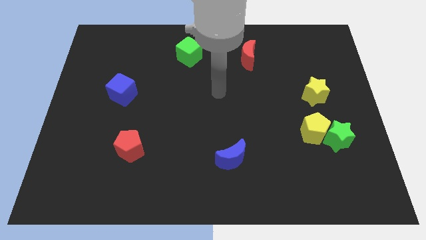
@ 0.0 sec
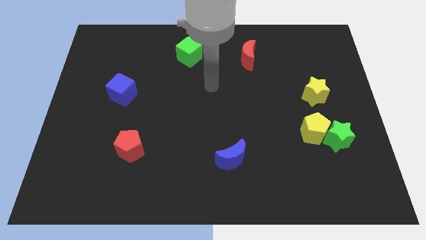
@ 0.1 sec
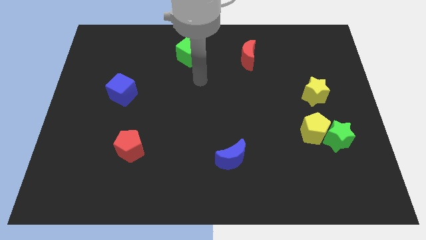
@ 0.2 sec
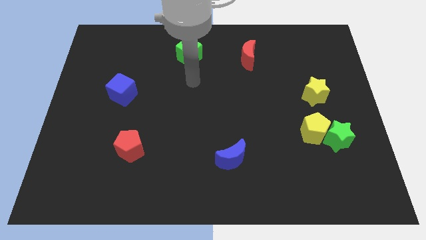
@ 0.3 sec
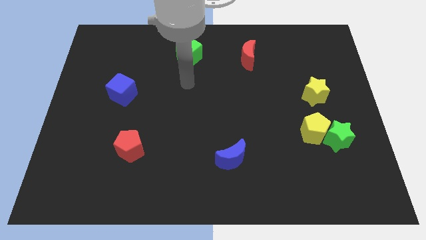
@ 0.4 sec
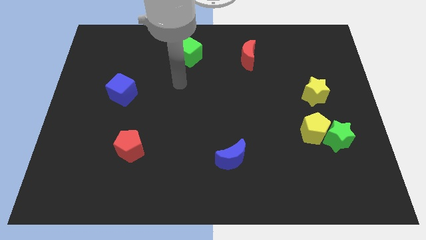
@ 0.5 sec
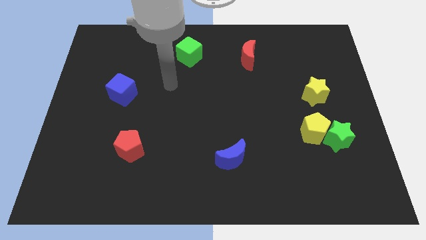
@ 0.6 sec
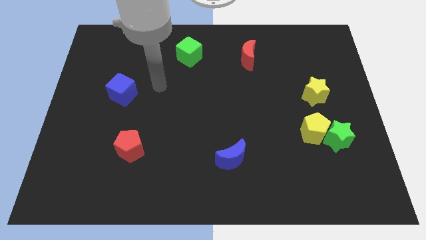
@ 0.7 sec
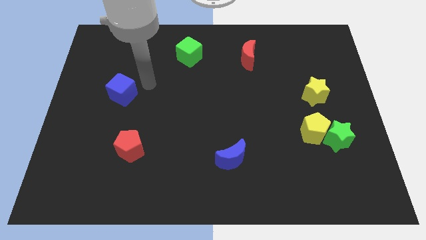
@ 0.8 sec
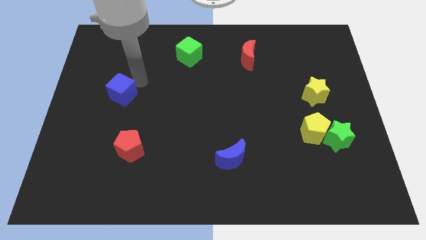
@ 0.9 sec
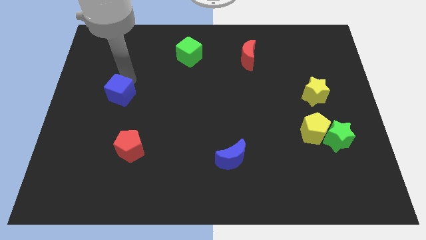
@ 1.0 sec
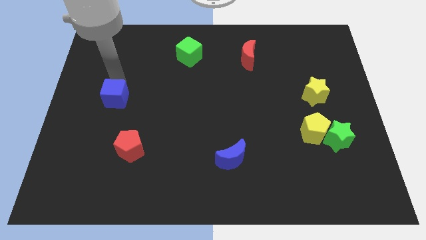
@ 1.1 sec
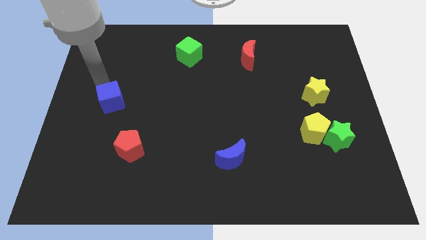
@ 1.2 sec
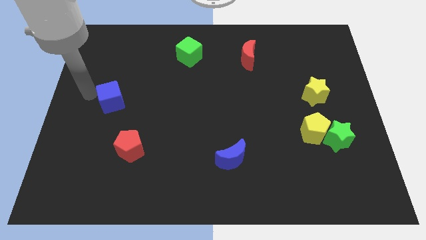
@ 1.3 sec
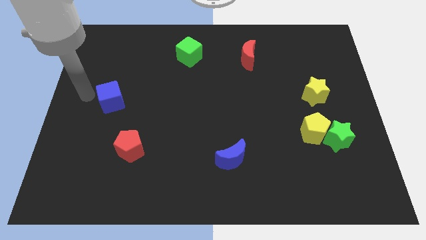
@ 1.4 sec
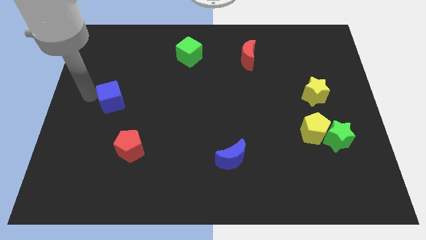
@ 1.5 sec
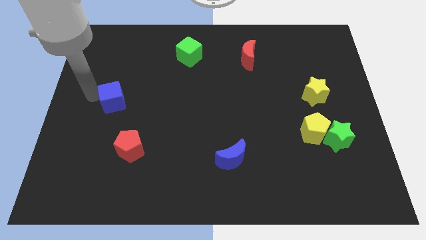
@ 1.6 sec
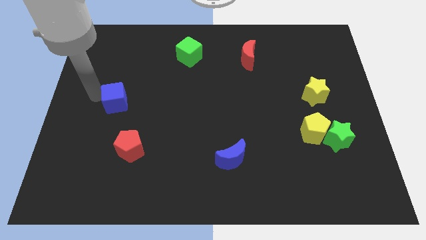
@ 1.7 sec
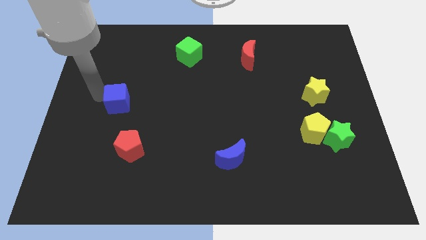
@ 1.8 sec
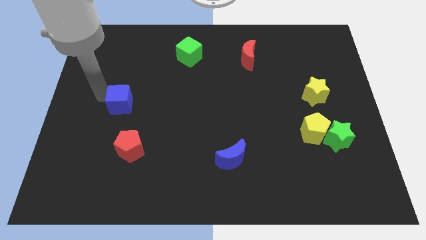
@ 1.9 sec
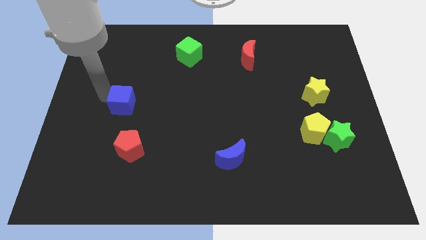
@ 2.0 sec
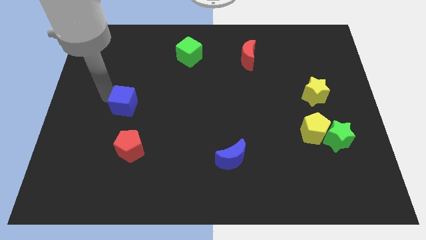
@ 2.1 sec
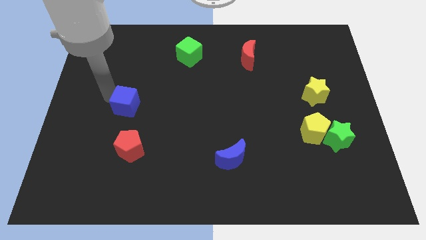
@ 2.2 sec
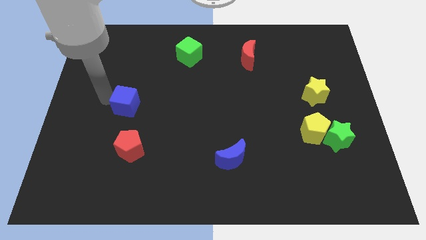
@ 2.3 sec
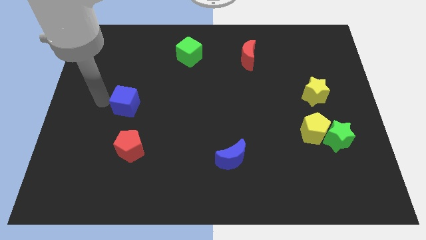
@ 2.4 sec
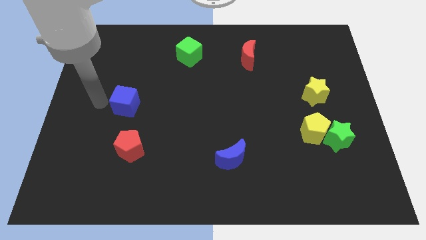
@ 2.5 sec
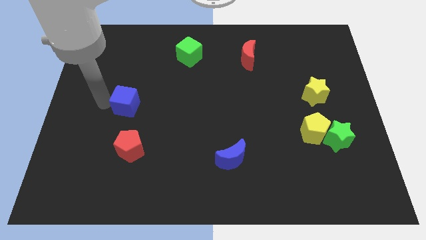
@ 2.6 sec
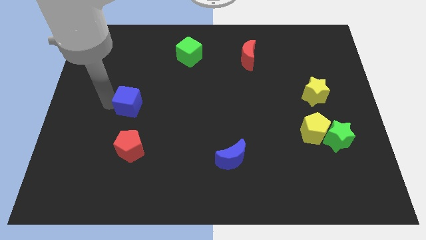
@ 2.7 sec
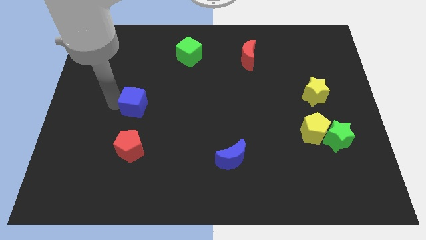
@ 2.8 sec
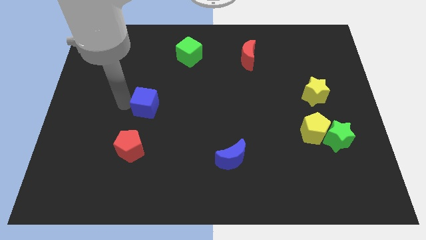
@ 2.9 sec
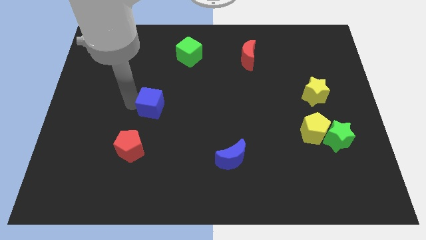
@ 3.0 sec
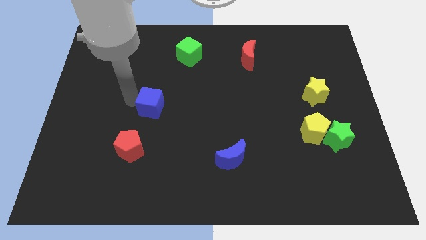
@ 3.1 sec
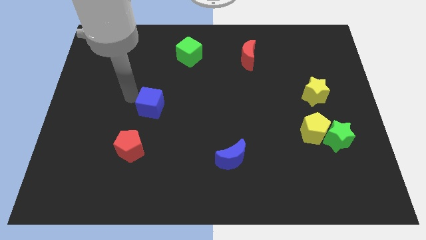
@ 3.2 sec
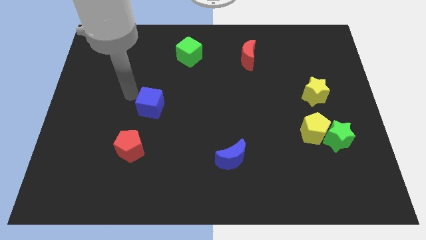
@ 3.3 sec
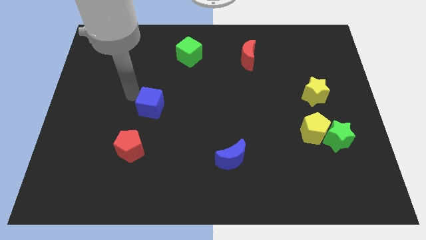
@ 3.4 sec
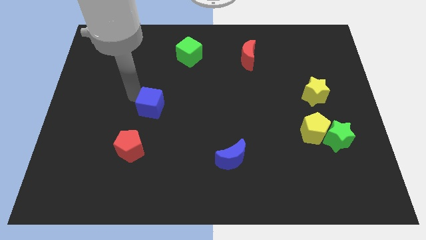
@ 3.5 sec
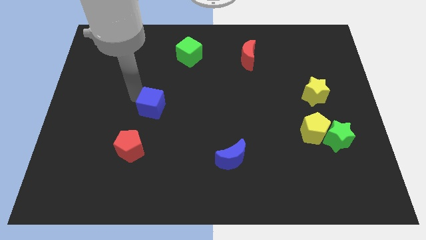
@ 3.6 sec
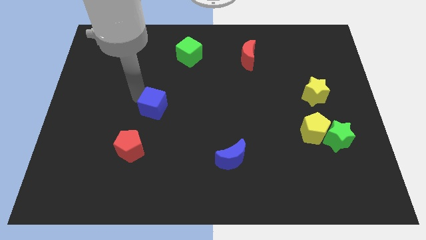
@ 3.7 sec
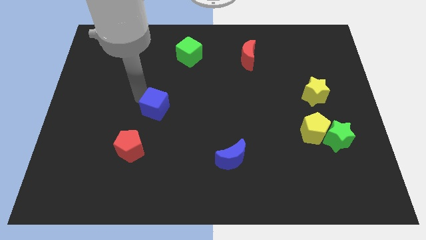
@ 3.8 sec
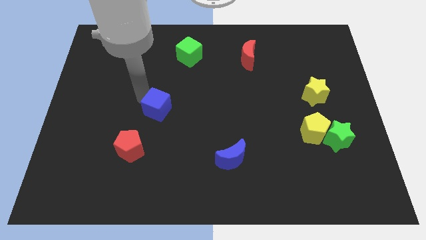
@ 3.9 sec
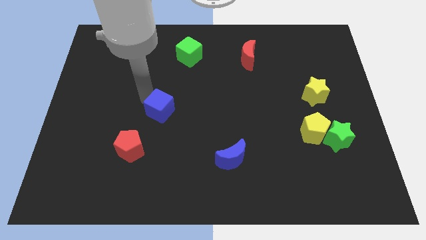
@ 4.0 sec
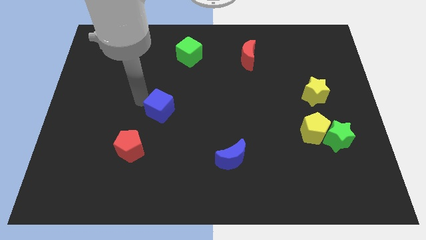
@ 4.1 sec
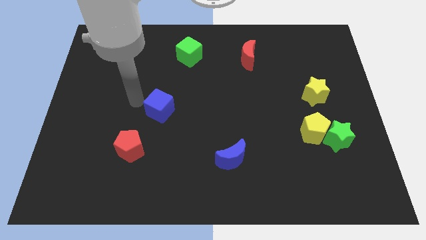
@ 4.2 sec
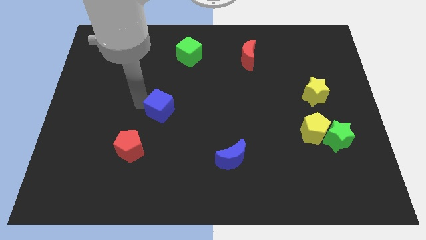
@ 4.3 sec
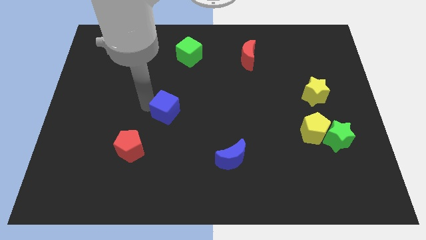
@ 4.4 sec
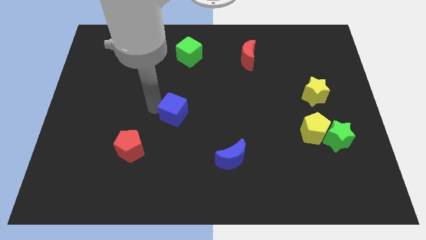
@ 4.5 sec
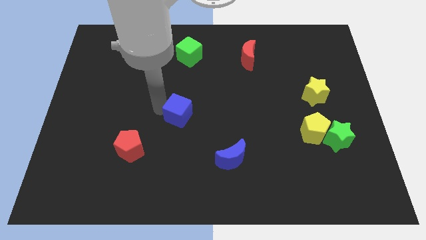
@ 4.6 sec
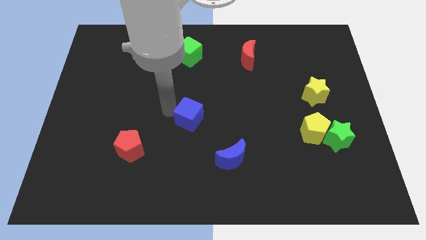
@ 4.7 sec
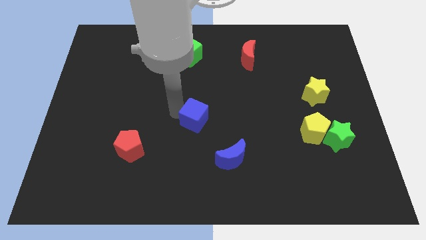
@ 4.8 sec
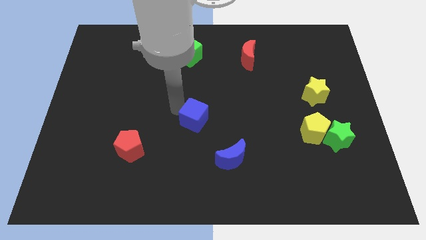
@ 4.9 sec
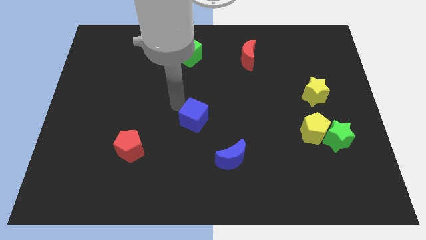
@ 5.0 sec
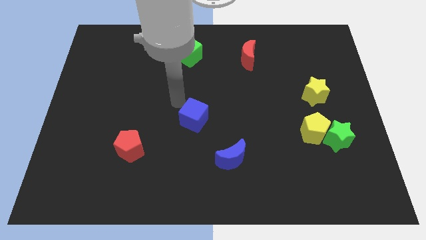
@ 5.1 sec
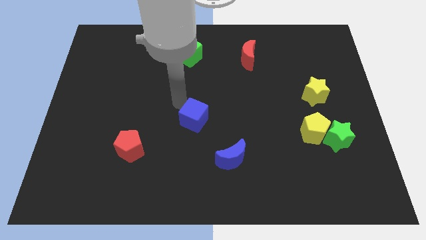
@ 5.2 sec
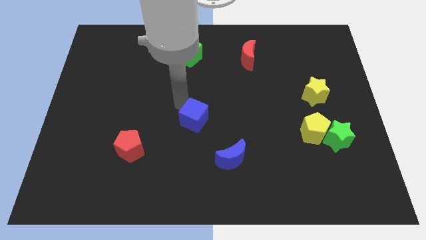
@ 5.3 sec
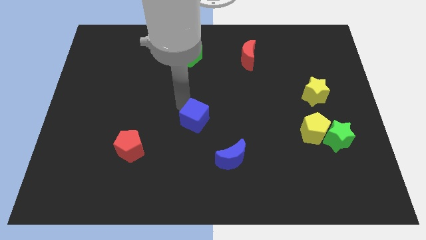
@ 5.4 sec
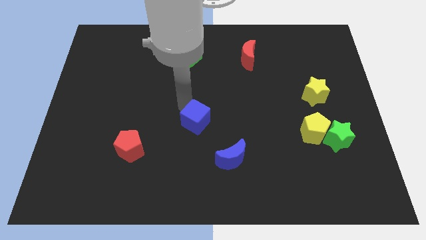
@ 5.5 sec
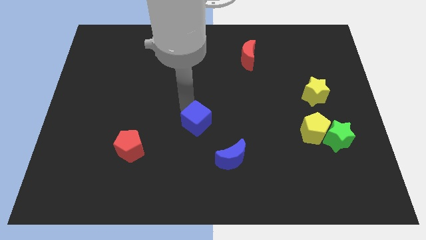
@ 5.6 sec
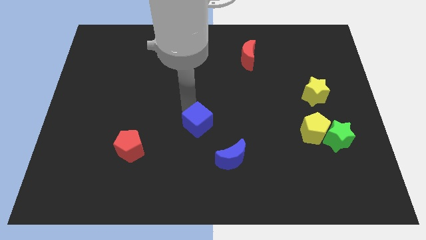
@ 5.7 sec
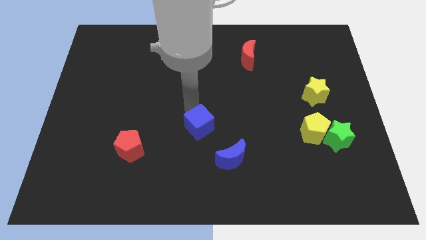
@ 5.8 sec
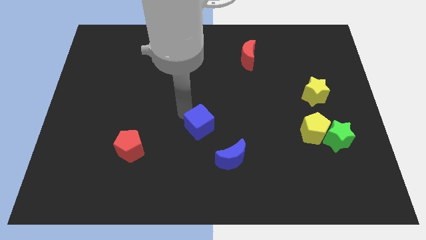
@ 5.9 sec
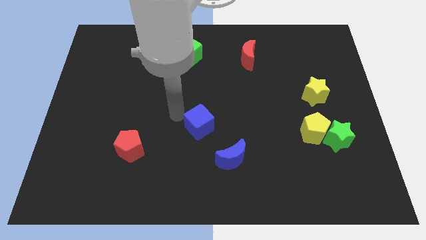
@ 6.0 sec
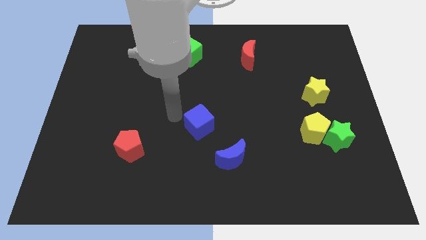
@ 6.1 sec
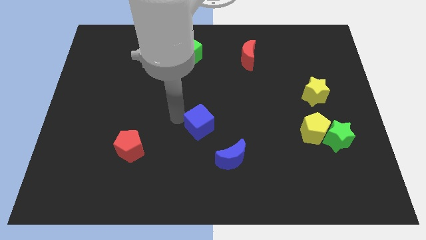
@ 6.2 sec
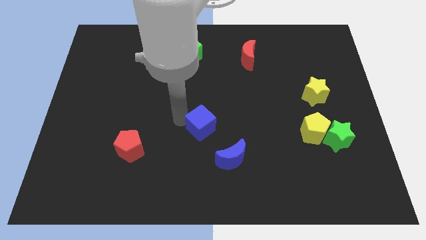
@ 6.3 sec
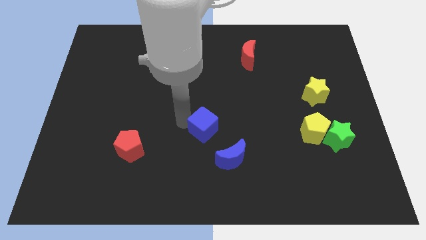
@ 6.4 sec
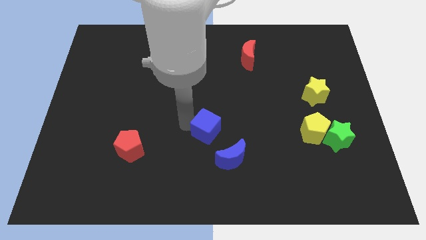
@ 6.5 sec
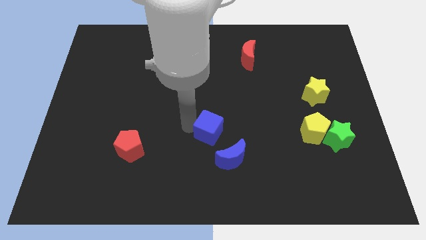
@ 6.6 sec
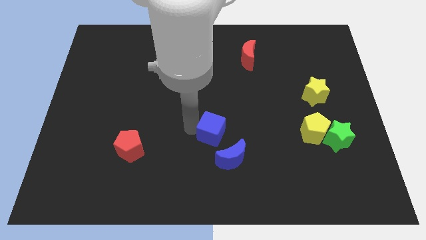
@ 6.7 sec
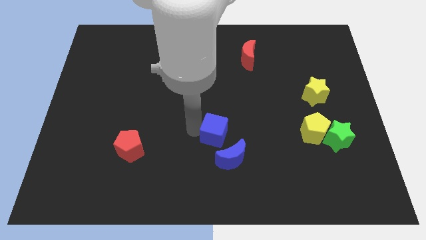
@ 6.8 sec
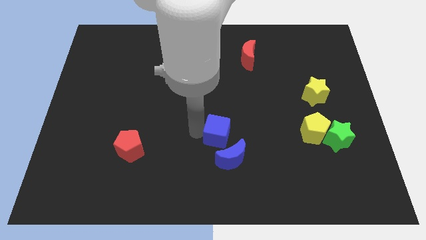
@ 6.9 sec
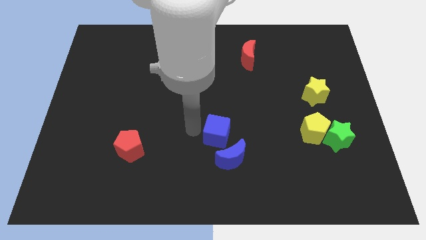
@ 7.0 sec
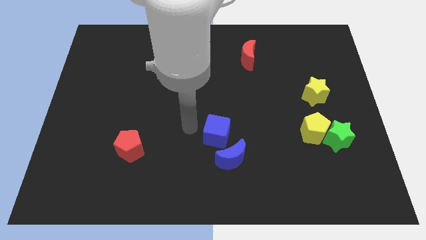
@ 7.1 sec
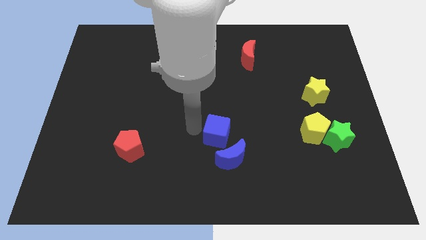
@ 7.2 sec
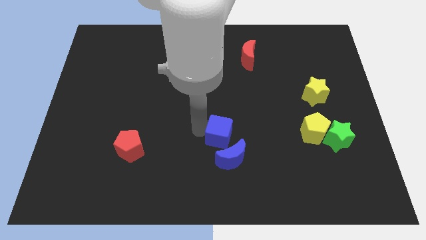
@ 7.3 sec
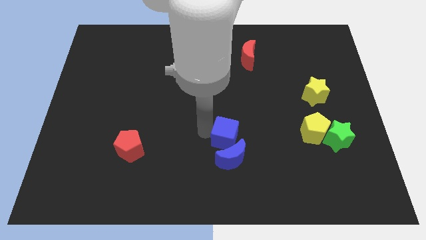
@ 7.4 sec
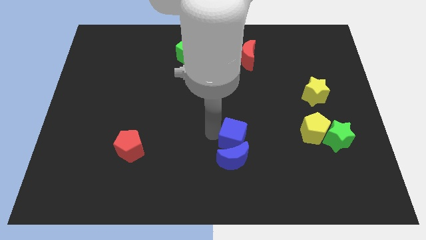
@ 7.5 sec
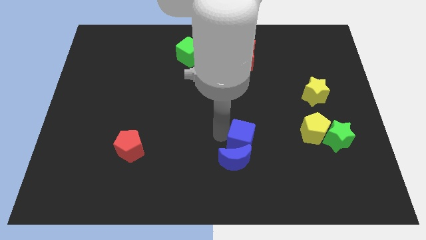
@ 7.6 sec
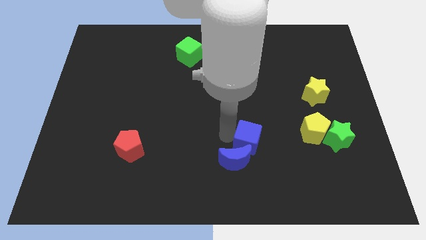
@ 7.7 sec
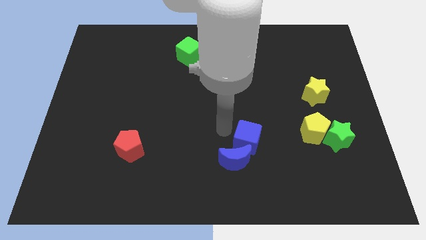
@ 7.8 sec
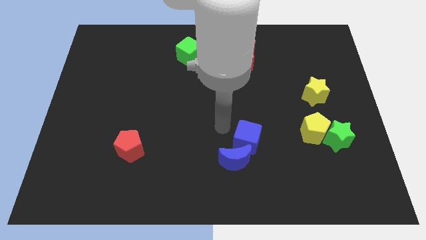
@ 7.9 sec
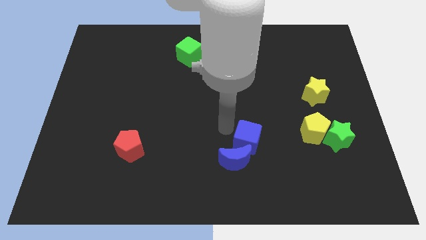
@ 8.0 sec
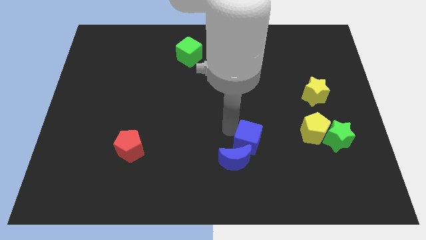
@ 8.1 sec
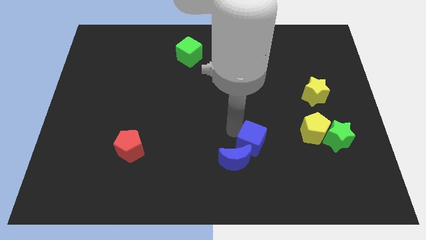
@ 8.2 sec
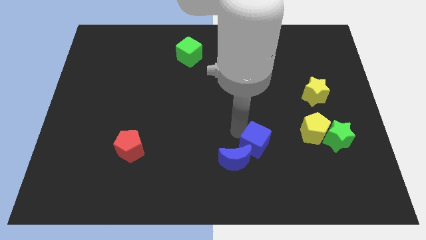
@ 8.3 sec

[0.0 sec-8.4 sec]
slide the blue cube to the right of the blue moon
